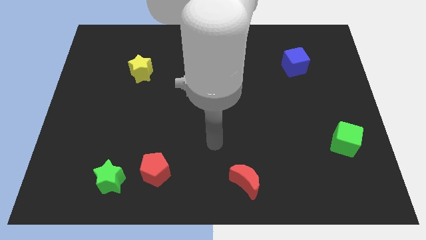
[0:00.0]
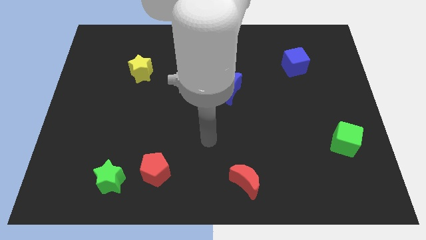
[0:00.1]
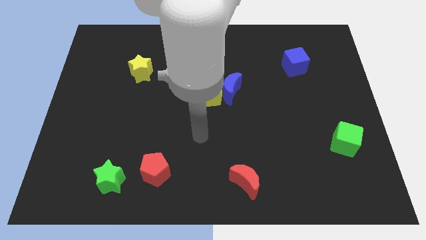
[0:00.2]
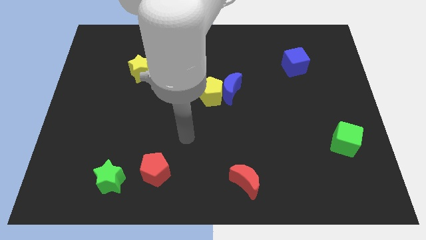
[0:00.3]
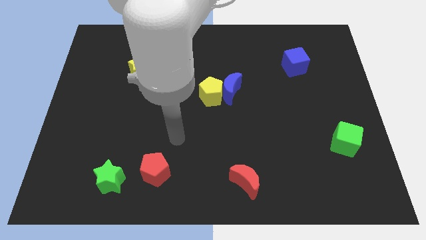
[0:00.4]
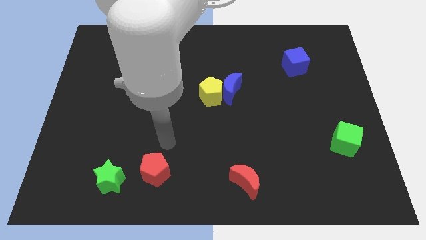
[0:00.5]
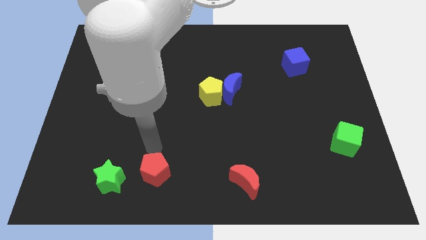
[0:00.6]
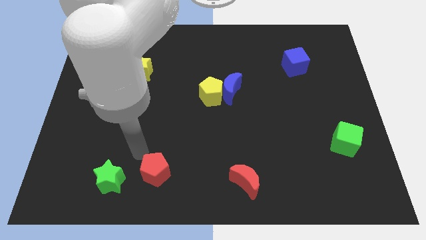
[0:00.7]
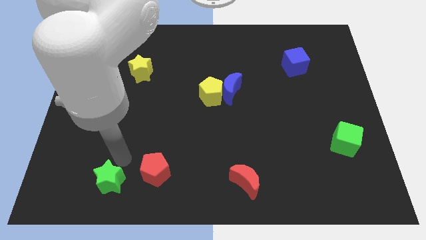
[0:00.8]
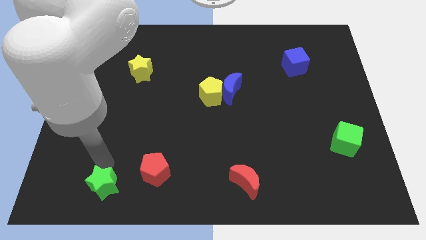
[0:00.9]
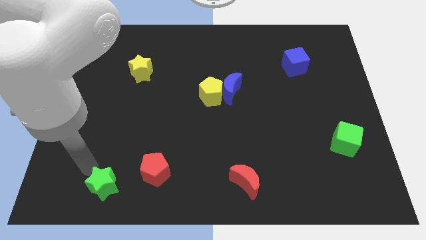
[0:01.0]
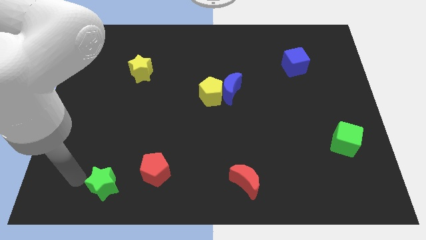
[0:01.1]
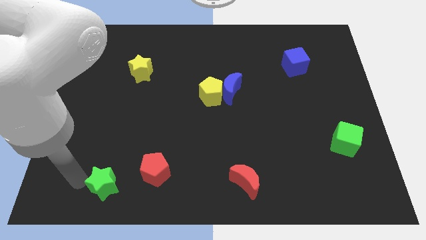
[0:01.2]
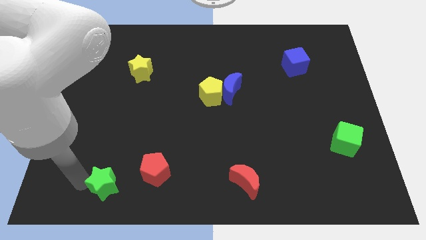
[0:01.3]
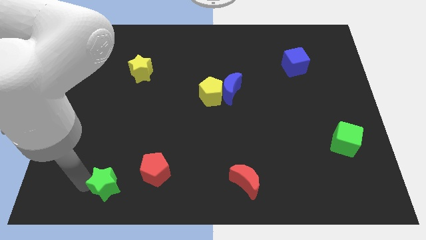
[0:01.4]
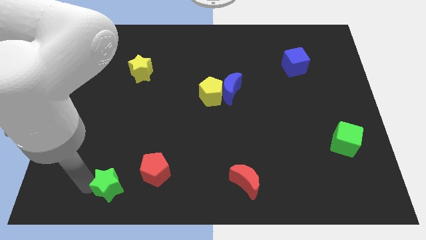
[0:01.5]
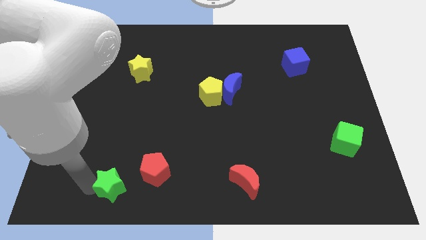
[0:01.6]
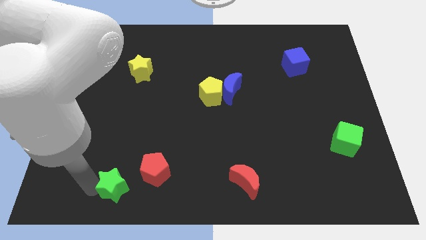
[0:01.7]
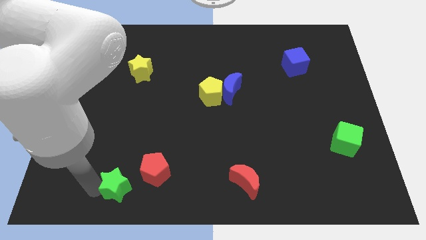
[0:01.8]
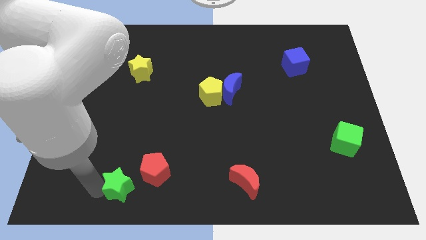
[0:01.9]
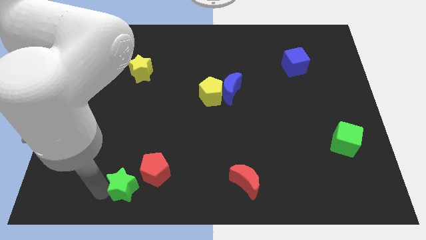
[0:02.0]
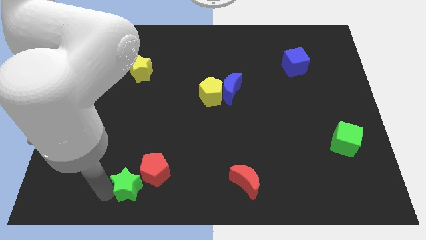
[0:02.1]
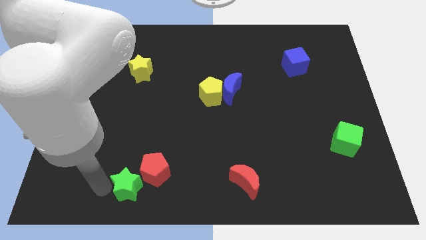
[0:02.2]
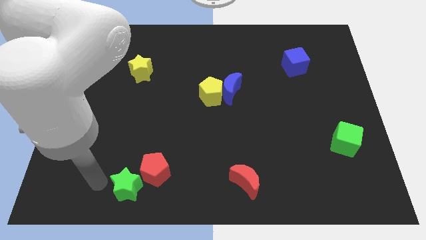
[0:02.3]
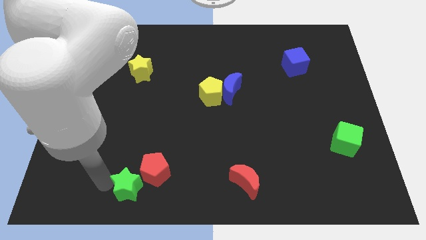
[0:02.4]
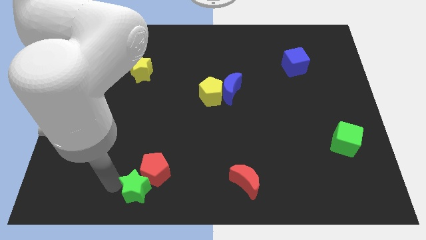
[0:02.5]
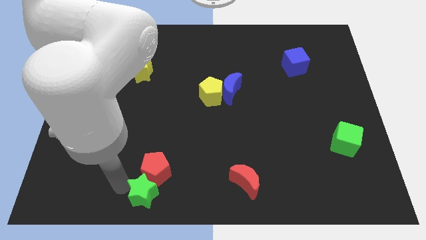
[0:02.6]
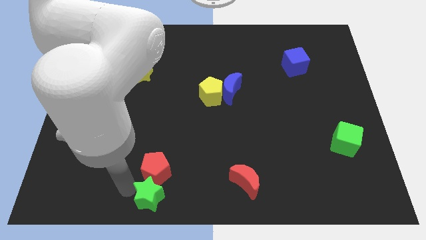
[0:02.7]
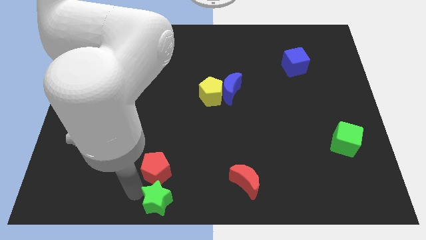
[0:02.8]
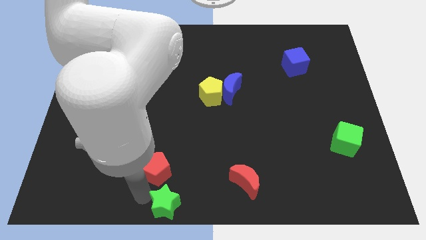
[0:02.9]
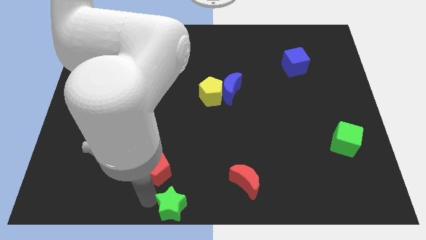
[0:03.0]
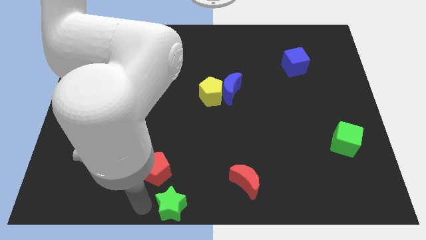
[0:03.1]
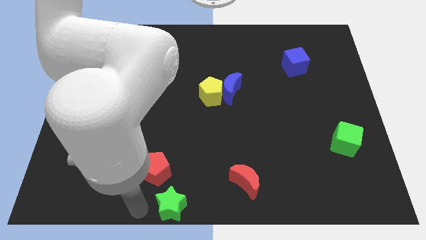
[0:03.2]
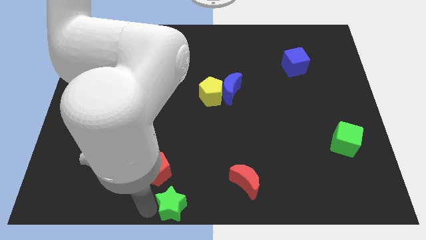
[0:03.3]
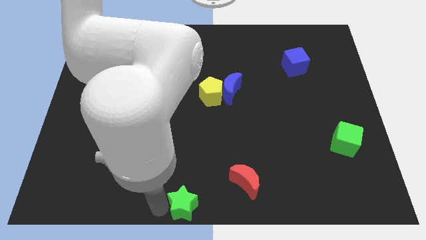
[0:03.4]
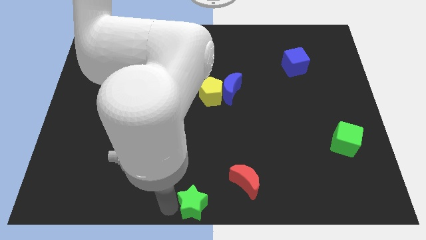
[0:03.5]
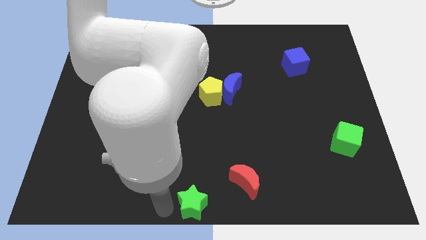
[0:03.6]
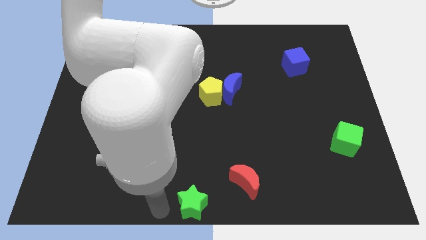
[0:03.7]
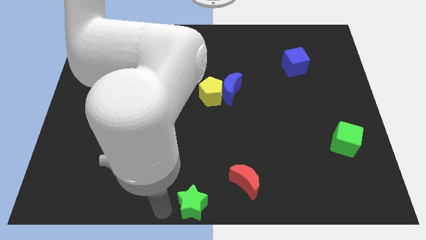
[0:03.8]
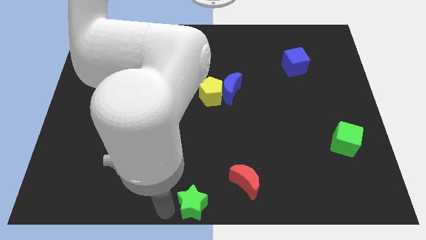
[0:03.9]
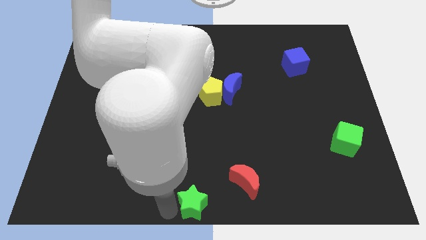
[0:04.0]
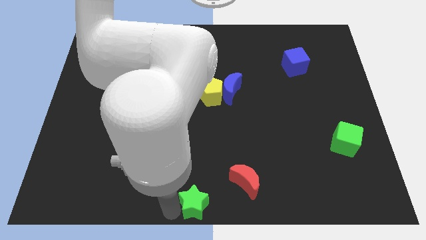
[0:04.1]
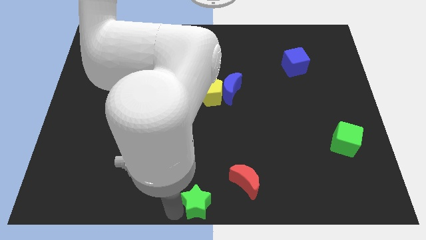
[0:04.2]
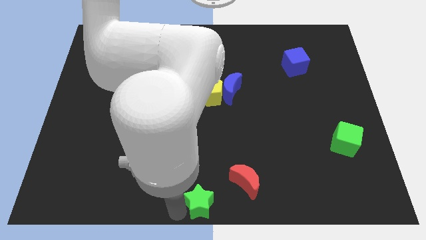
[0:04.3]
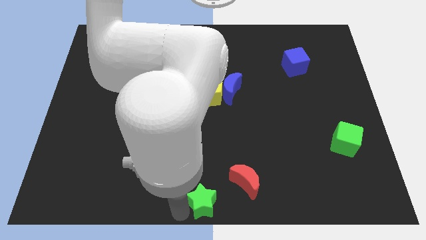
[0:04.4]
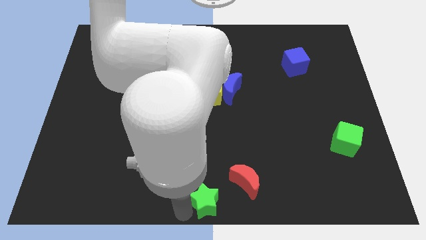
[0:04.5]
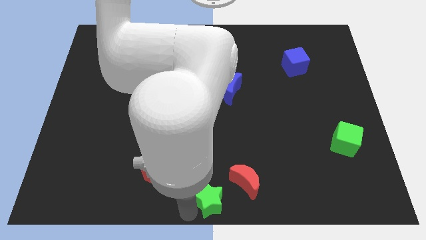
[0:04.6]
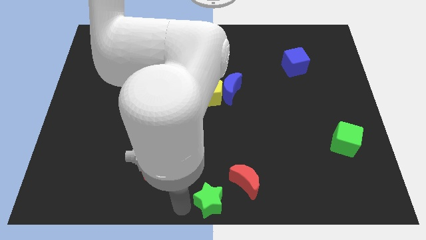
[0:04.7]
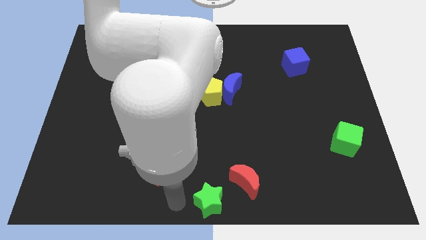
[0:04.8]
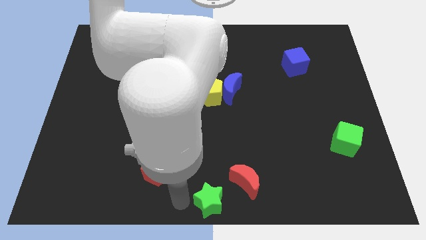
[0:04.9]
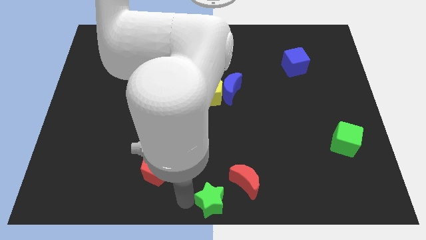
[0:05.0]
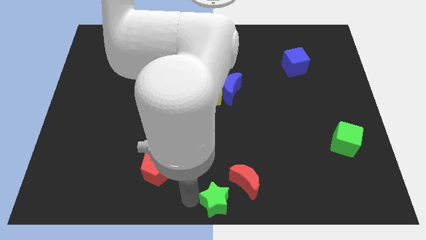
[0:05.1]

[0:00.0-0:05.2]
push the green star to the right

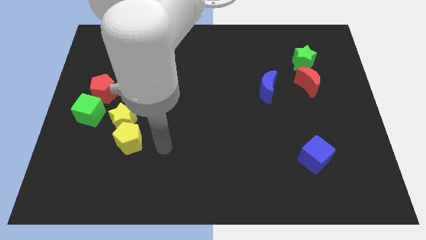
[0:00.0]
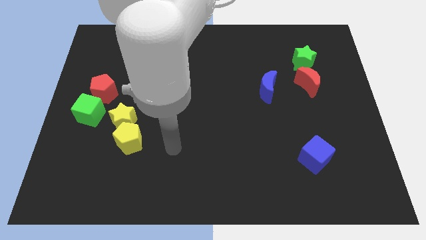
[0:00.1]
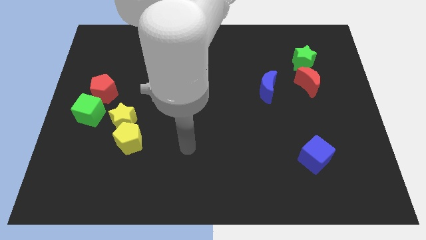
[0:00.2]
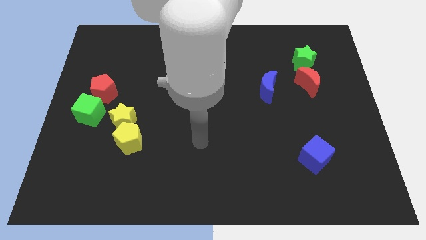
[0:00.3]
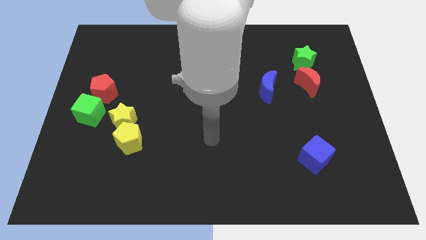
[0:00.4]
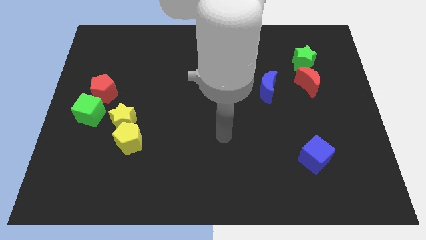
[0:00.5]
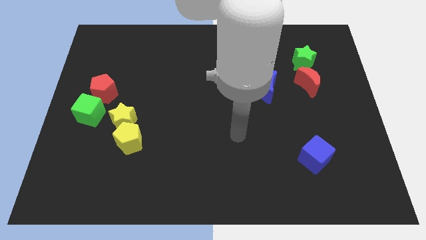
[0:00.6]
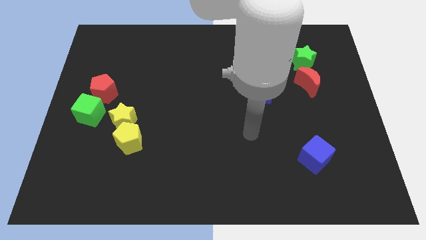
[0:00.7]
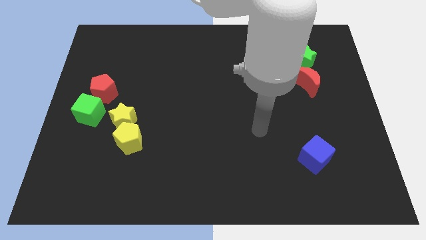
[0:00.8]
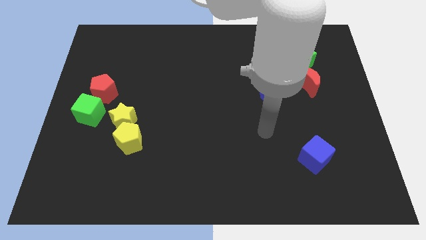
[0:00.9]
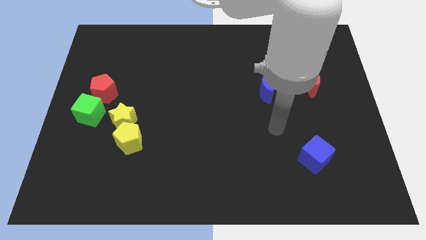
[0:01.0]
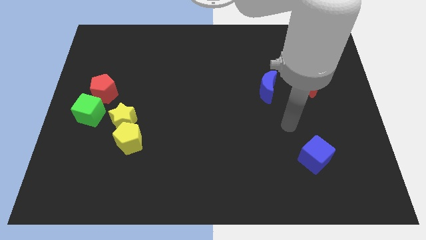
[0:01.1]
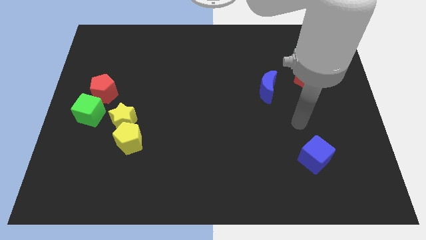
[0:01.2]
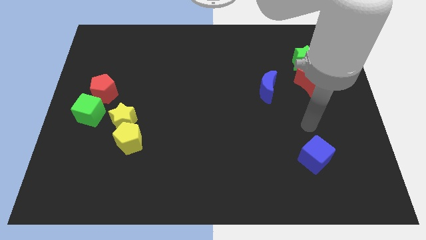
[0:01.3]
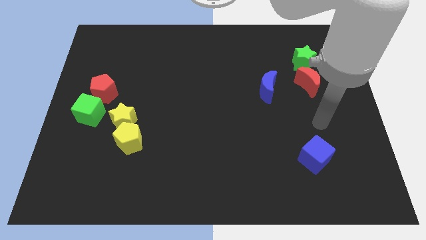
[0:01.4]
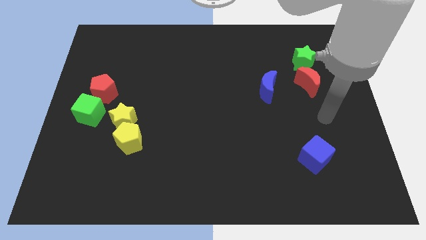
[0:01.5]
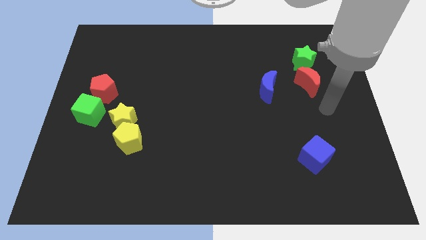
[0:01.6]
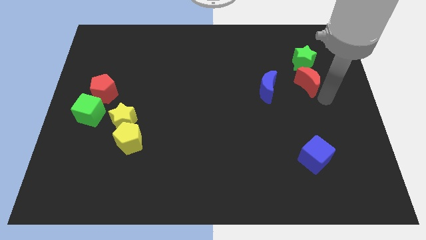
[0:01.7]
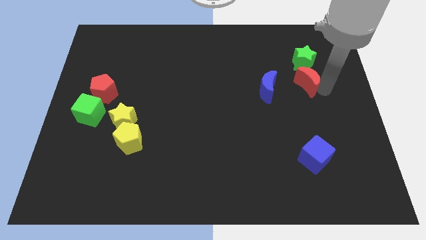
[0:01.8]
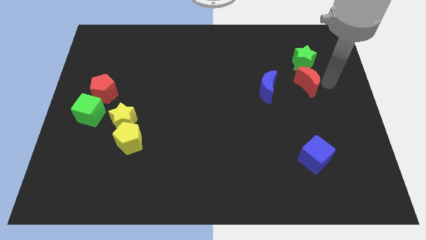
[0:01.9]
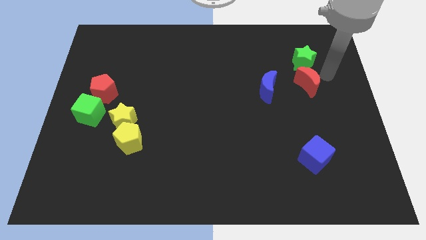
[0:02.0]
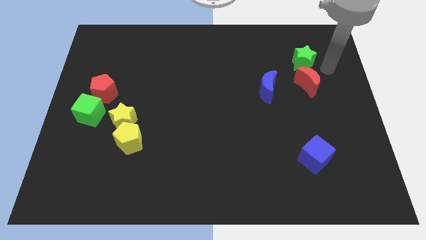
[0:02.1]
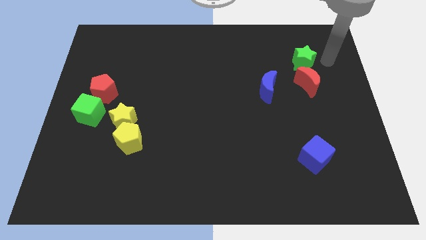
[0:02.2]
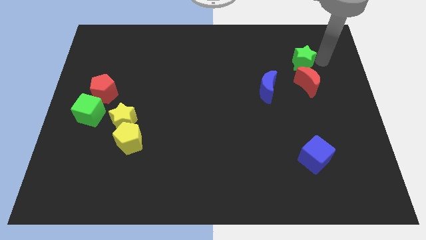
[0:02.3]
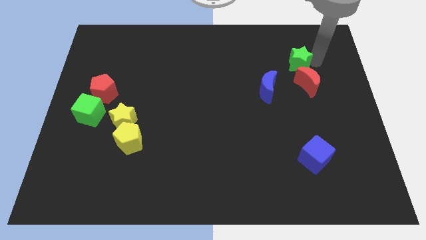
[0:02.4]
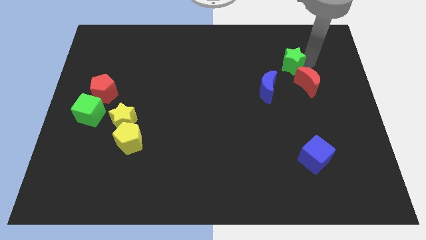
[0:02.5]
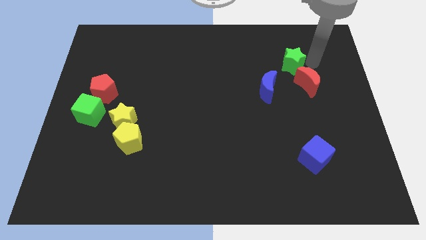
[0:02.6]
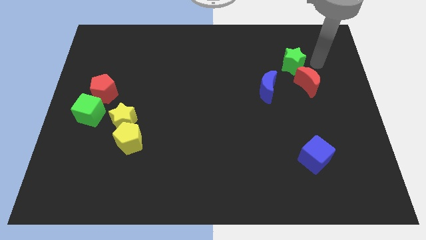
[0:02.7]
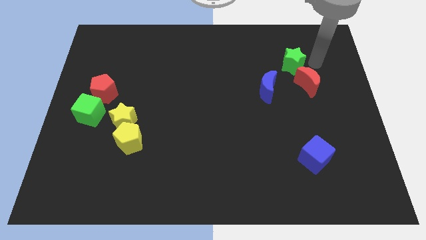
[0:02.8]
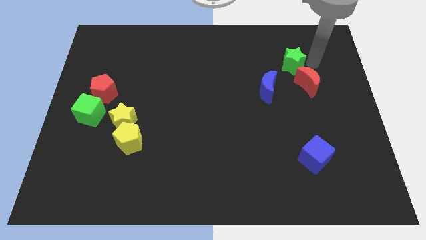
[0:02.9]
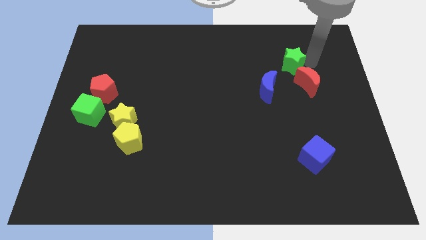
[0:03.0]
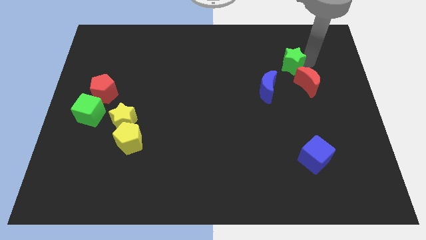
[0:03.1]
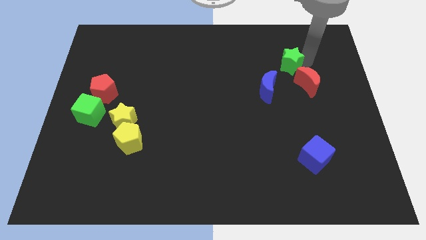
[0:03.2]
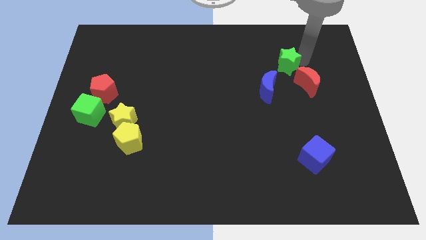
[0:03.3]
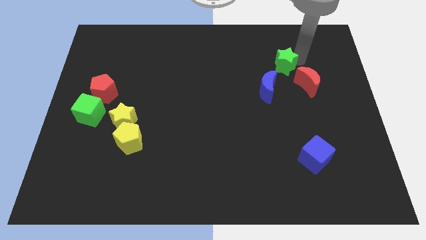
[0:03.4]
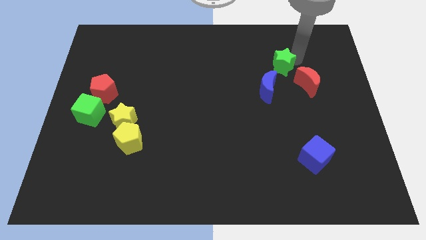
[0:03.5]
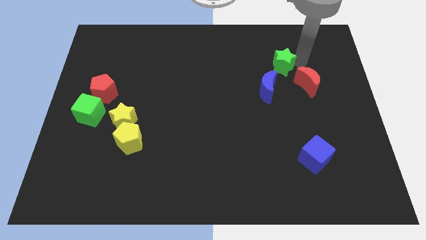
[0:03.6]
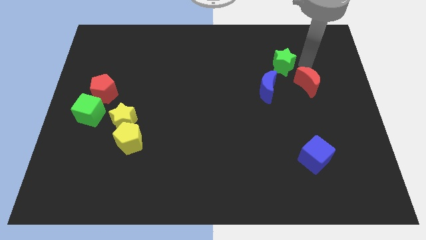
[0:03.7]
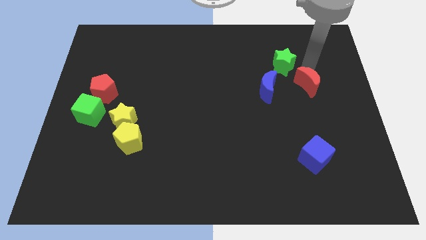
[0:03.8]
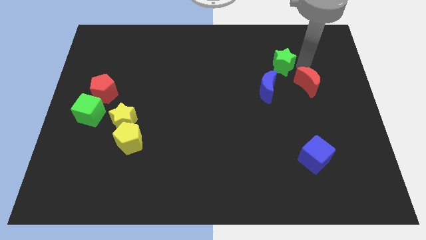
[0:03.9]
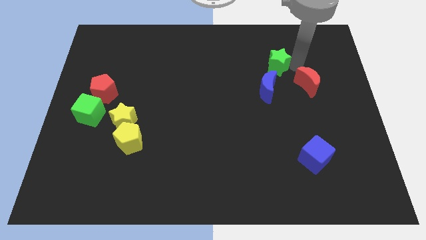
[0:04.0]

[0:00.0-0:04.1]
move the green star to the left a little bit
